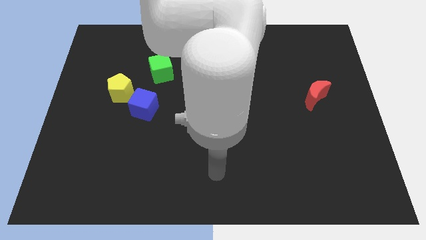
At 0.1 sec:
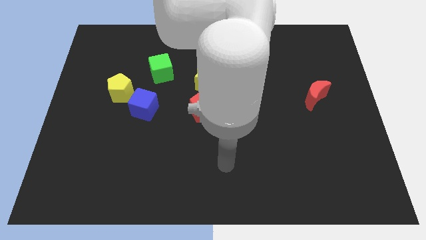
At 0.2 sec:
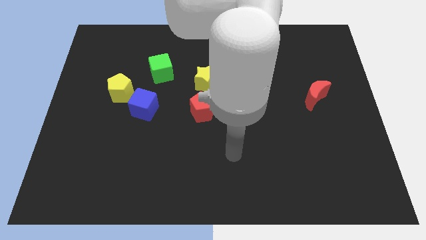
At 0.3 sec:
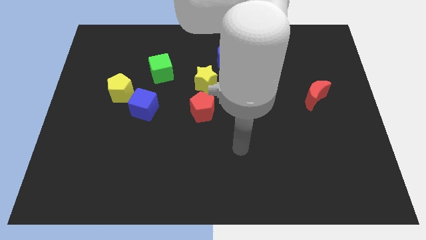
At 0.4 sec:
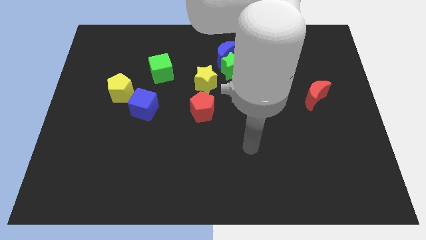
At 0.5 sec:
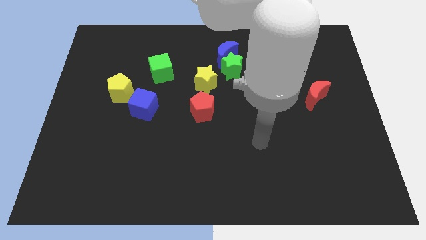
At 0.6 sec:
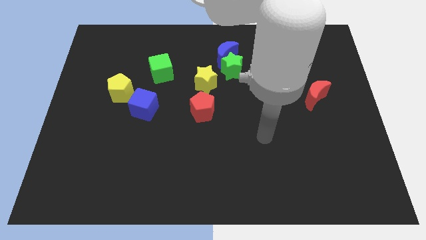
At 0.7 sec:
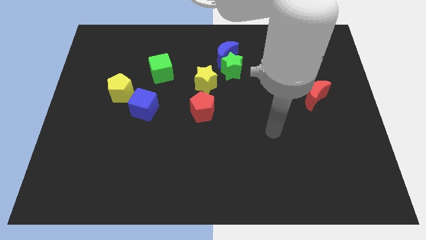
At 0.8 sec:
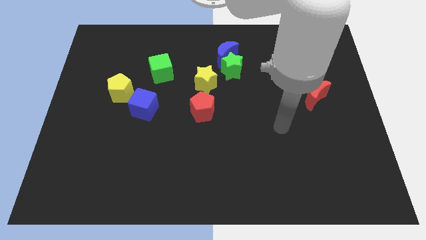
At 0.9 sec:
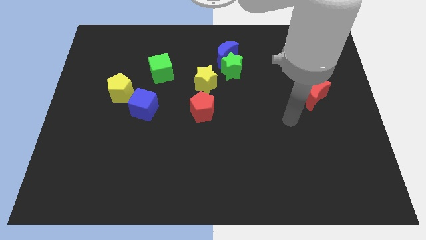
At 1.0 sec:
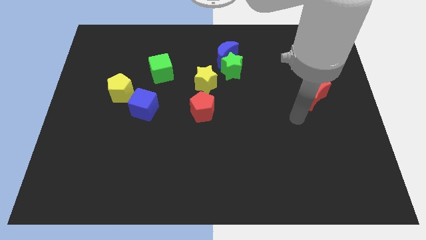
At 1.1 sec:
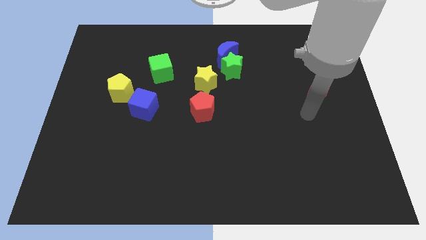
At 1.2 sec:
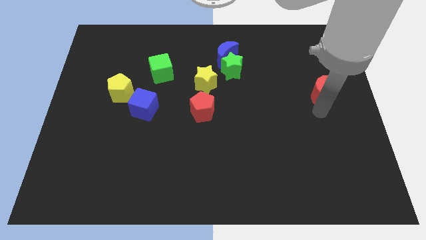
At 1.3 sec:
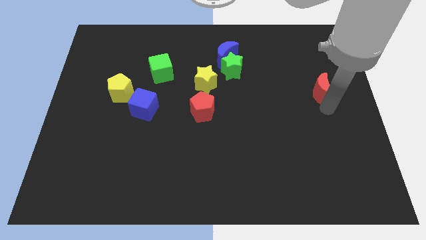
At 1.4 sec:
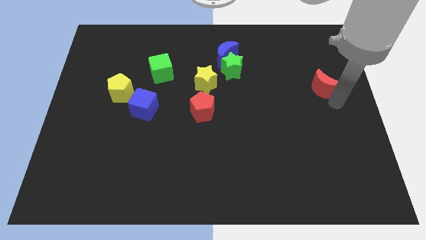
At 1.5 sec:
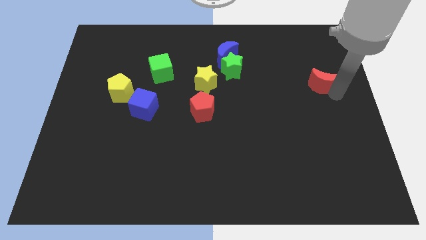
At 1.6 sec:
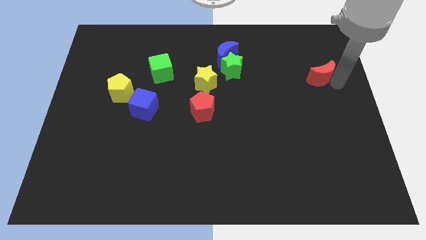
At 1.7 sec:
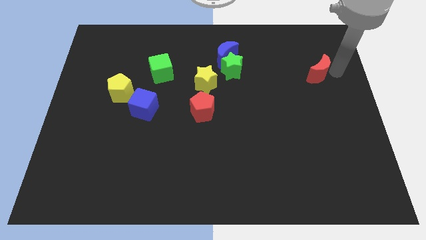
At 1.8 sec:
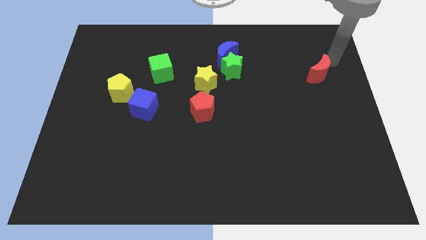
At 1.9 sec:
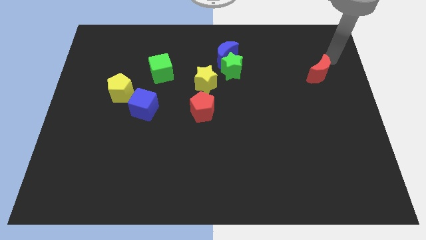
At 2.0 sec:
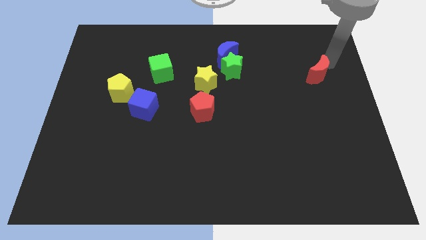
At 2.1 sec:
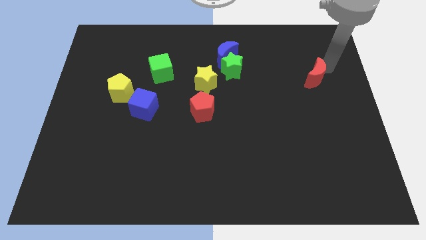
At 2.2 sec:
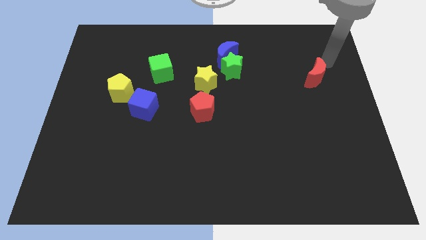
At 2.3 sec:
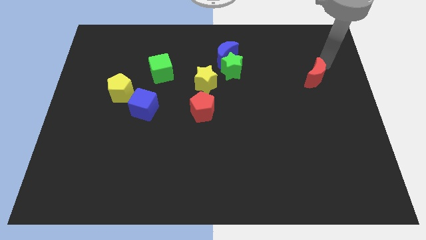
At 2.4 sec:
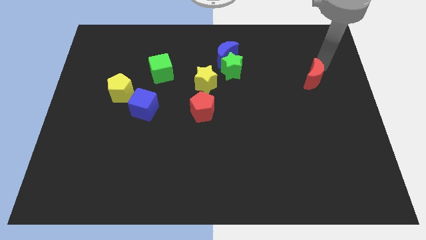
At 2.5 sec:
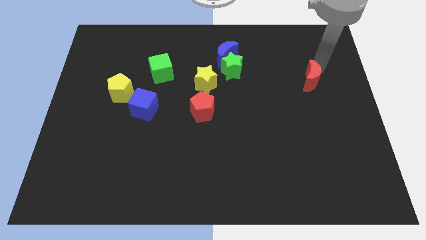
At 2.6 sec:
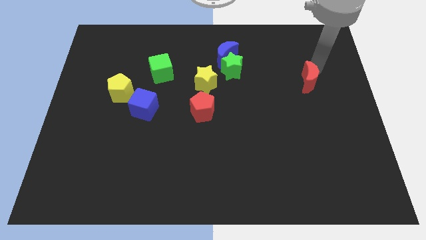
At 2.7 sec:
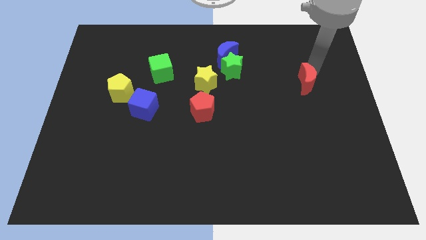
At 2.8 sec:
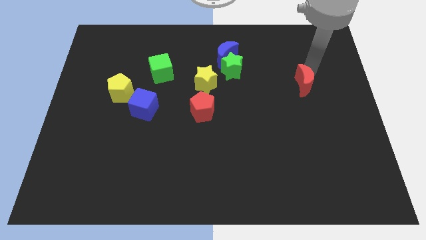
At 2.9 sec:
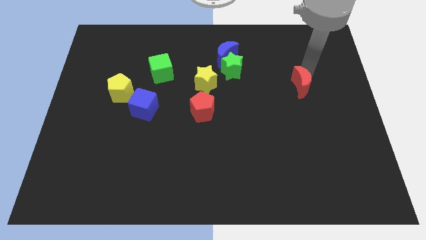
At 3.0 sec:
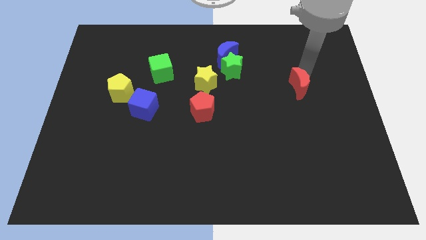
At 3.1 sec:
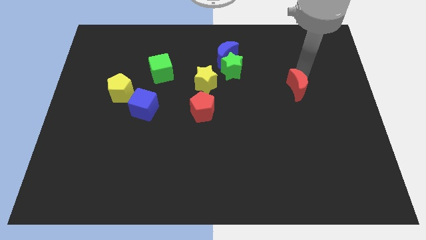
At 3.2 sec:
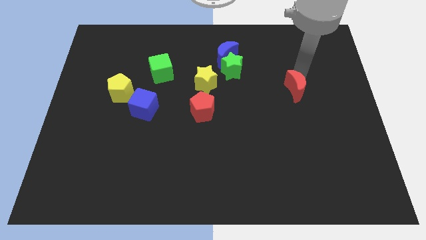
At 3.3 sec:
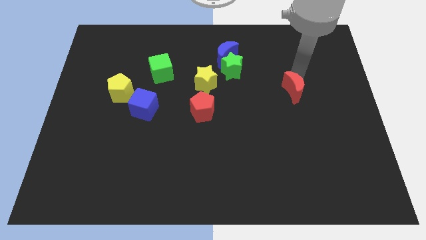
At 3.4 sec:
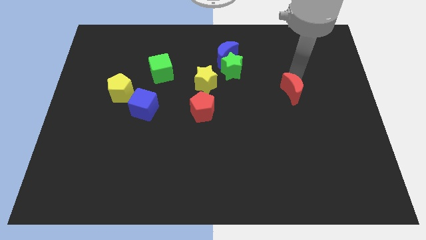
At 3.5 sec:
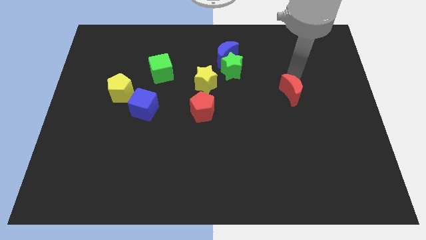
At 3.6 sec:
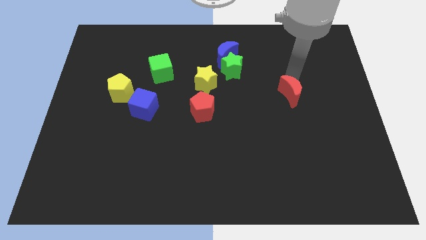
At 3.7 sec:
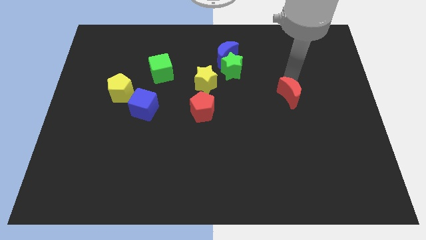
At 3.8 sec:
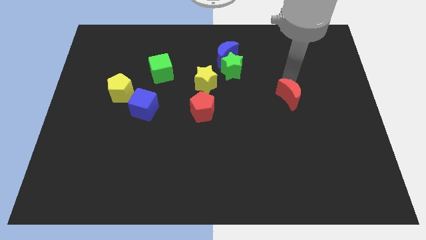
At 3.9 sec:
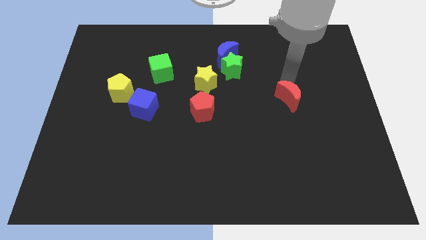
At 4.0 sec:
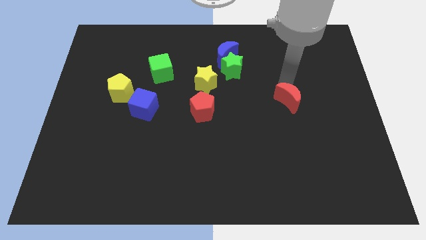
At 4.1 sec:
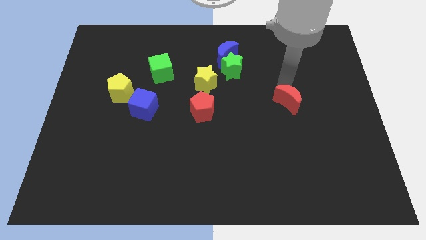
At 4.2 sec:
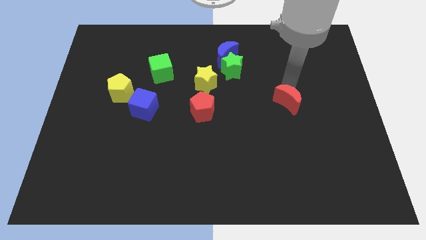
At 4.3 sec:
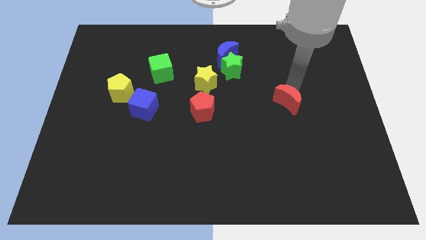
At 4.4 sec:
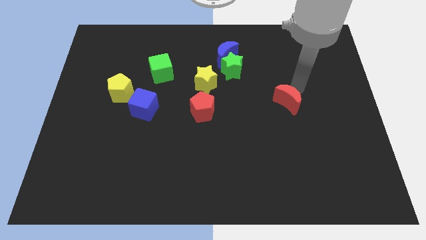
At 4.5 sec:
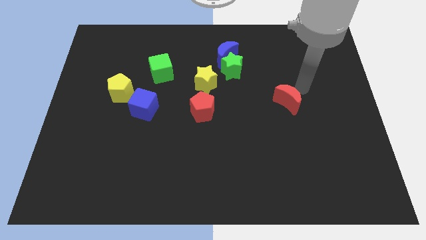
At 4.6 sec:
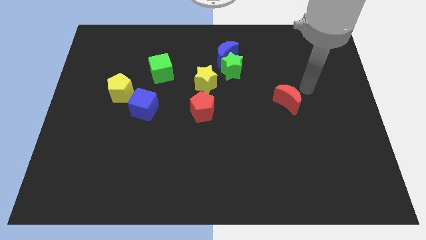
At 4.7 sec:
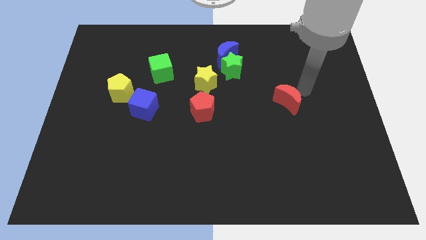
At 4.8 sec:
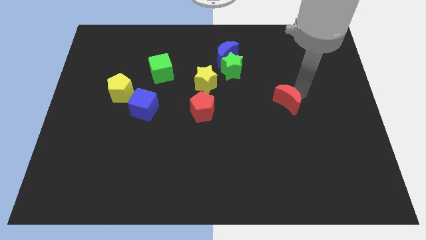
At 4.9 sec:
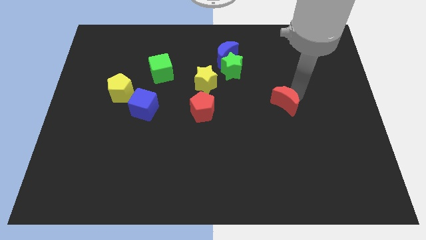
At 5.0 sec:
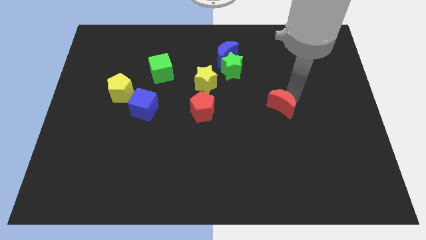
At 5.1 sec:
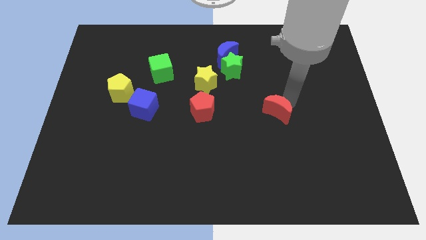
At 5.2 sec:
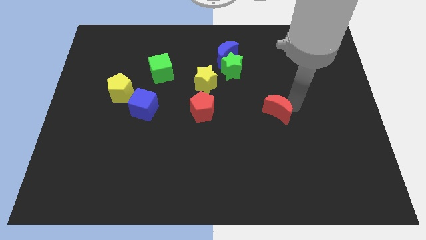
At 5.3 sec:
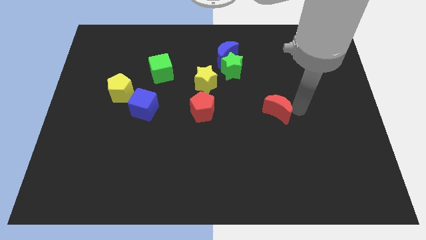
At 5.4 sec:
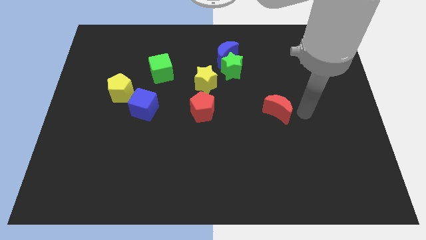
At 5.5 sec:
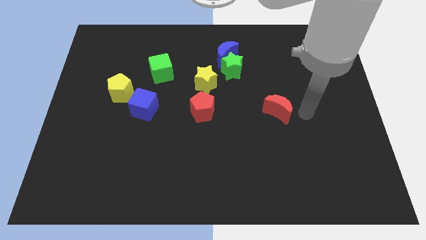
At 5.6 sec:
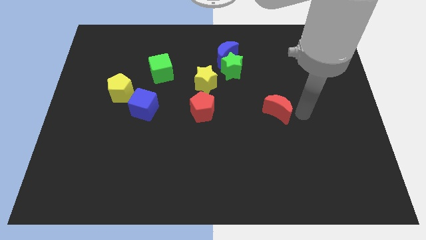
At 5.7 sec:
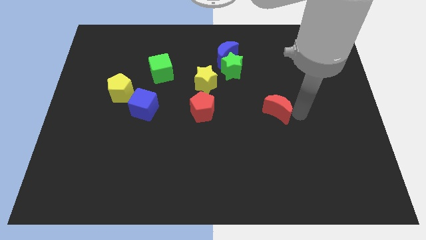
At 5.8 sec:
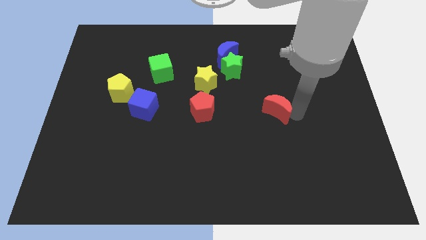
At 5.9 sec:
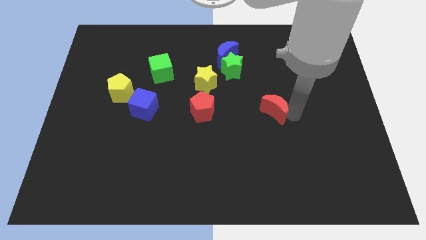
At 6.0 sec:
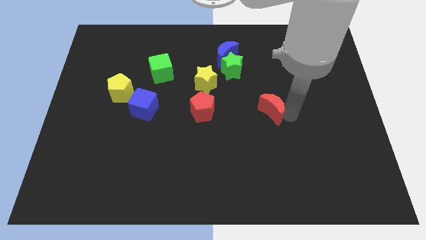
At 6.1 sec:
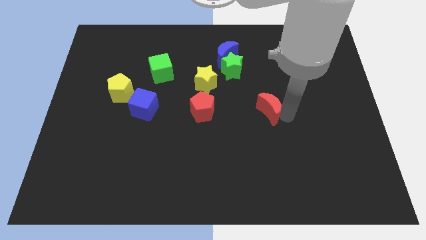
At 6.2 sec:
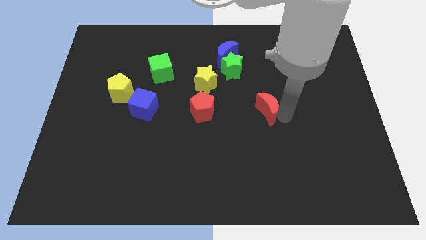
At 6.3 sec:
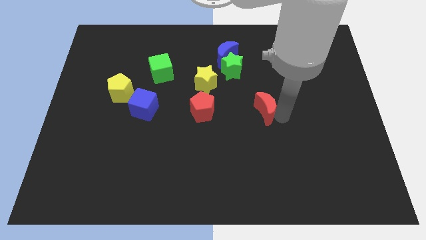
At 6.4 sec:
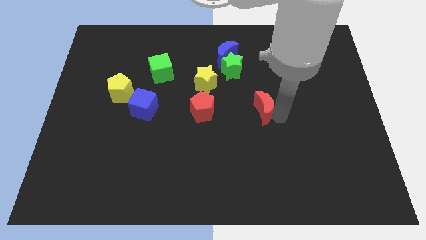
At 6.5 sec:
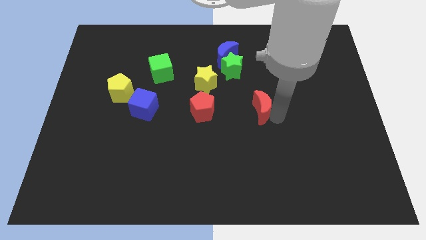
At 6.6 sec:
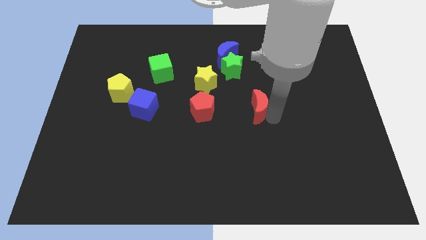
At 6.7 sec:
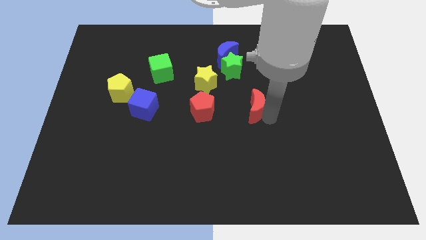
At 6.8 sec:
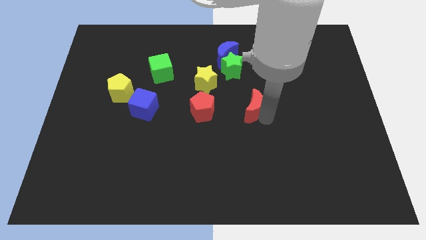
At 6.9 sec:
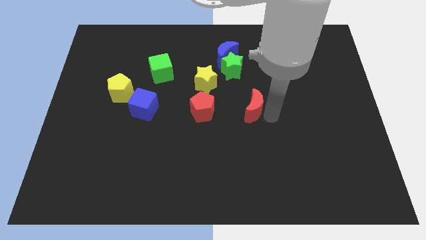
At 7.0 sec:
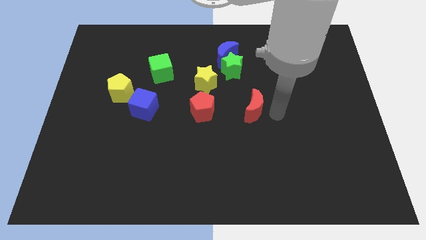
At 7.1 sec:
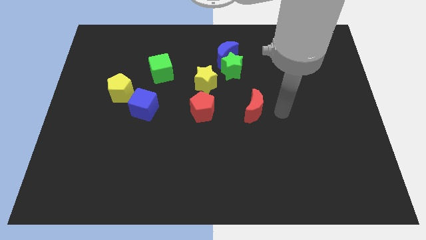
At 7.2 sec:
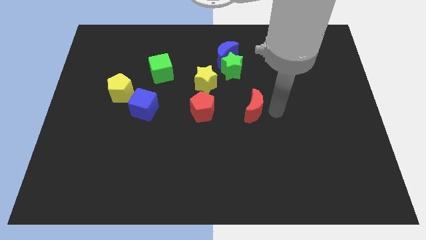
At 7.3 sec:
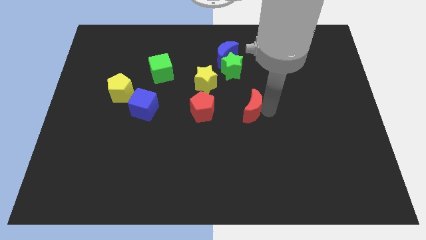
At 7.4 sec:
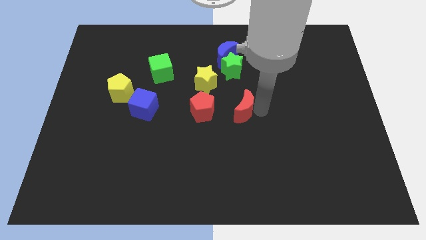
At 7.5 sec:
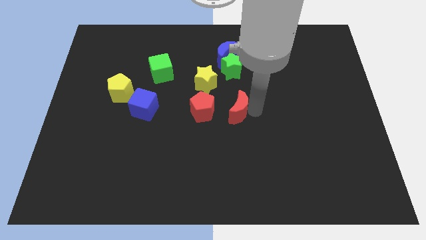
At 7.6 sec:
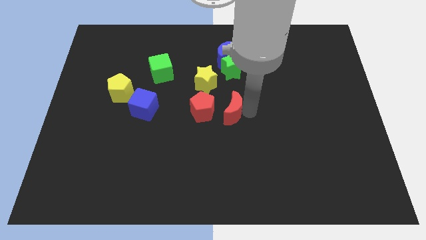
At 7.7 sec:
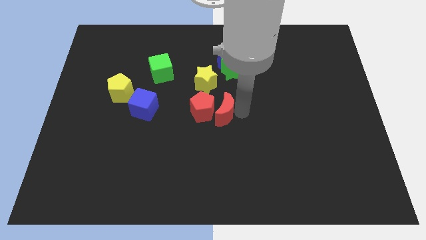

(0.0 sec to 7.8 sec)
move the red moon next to the red pentagon
